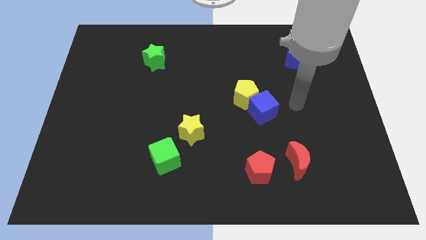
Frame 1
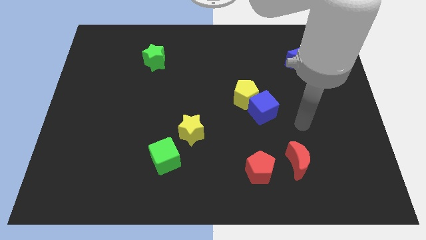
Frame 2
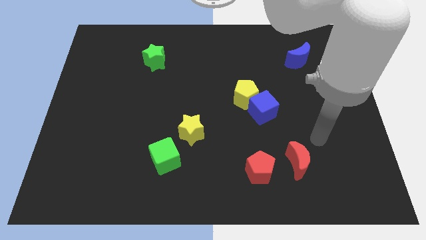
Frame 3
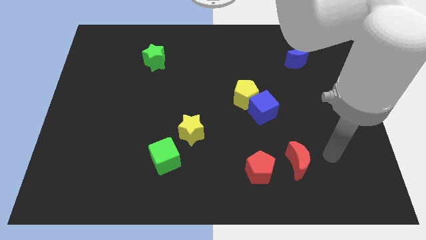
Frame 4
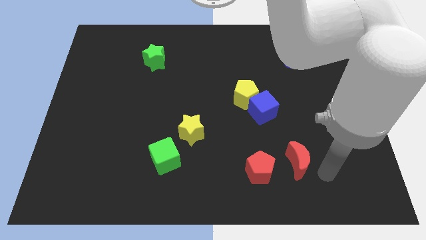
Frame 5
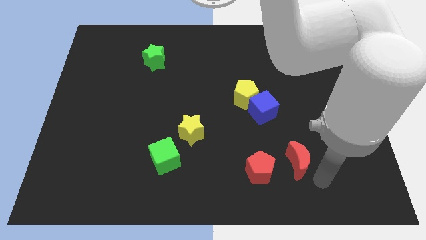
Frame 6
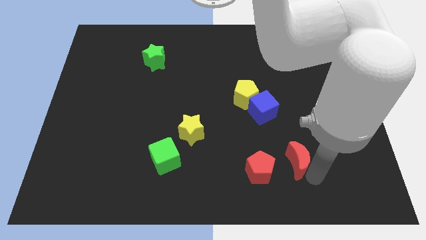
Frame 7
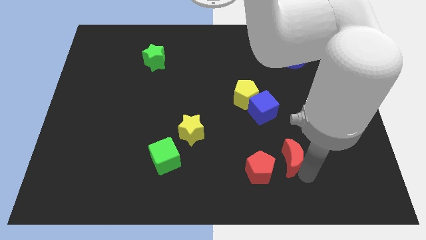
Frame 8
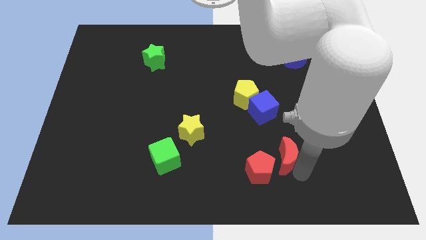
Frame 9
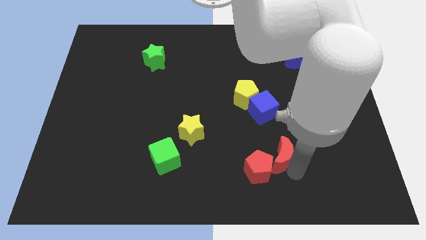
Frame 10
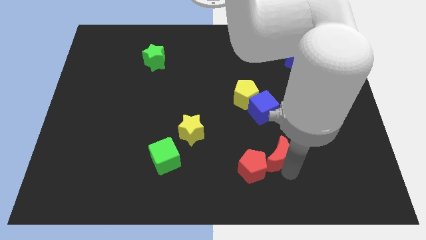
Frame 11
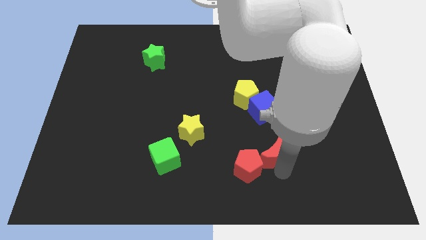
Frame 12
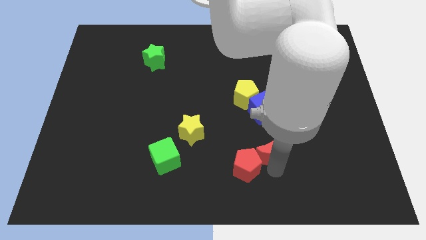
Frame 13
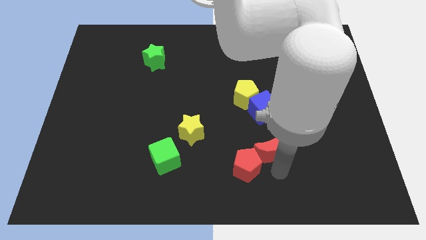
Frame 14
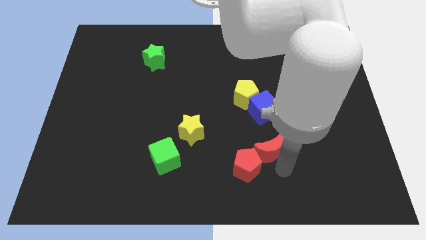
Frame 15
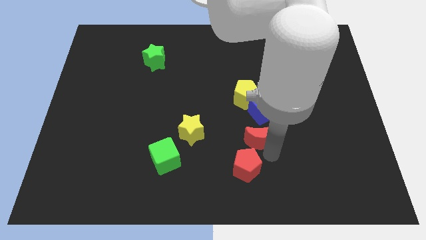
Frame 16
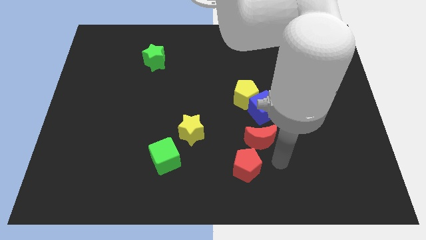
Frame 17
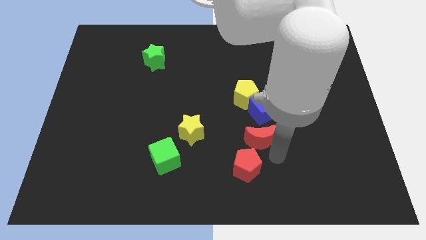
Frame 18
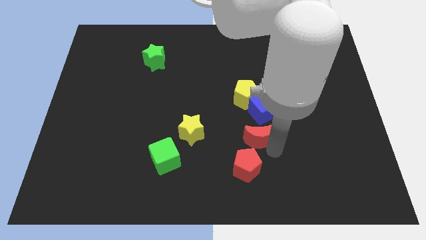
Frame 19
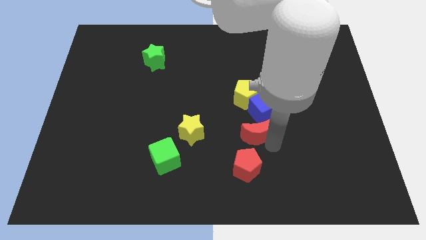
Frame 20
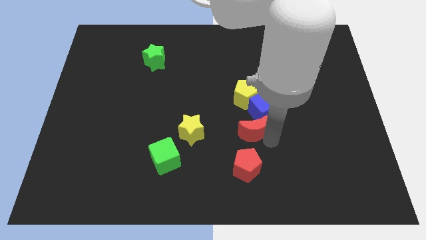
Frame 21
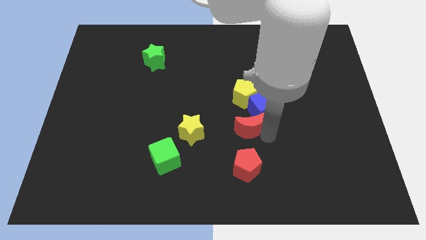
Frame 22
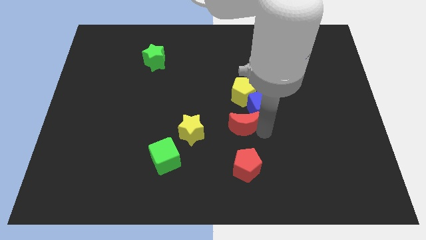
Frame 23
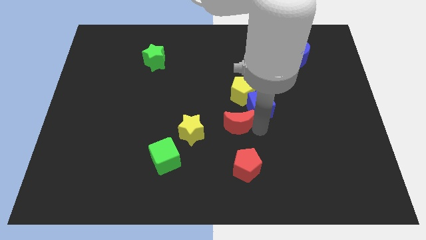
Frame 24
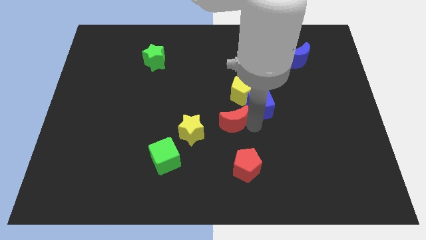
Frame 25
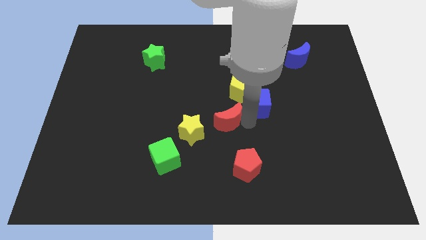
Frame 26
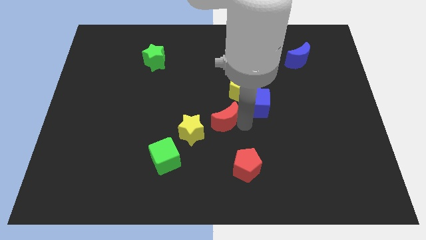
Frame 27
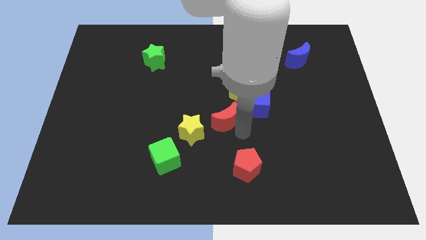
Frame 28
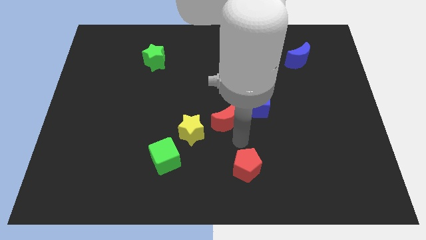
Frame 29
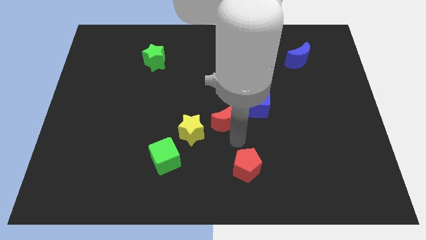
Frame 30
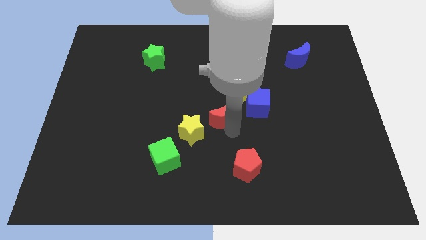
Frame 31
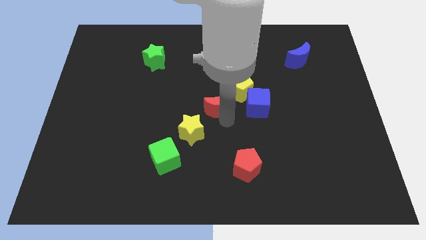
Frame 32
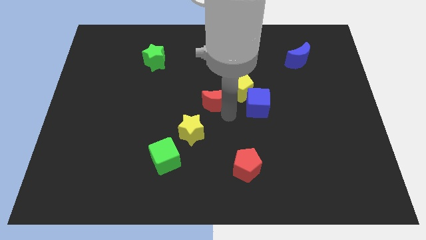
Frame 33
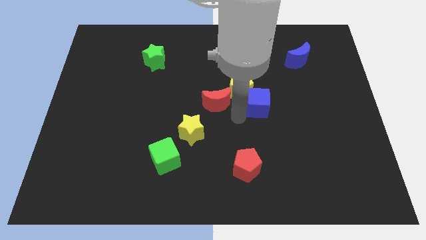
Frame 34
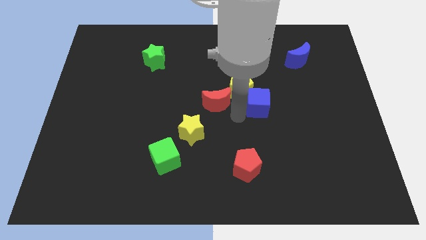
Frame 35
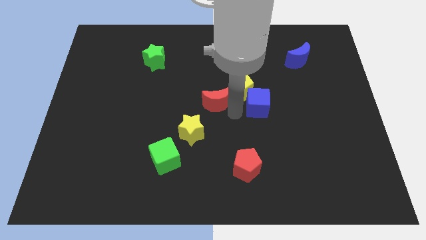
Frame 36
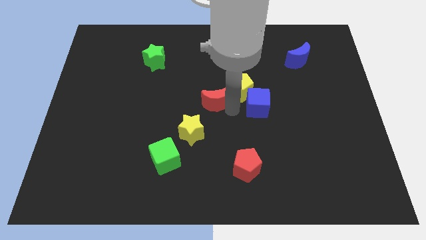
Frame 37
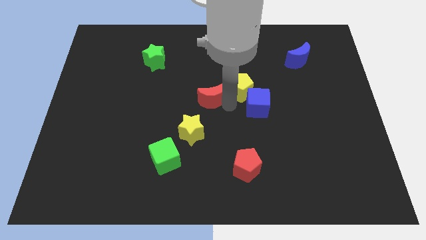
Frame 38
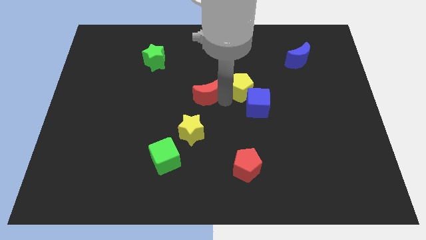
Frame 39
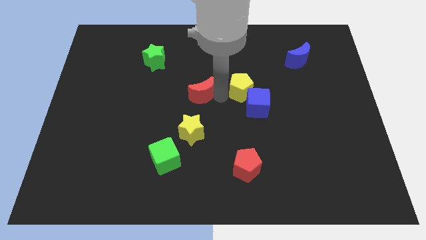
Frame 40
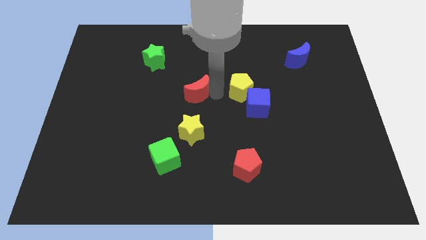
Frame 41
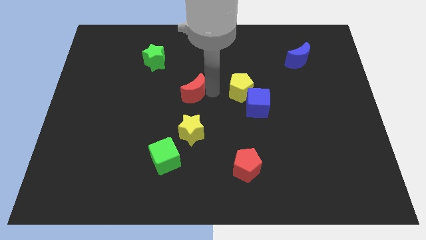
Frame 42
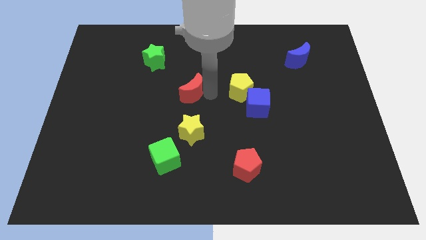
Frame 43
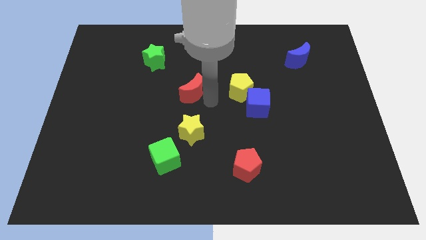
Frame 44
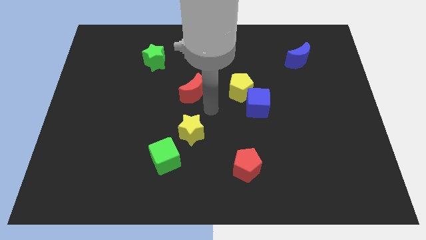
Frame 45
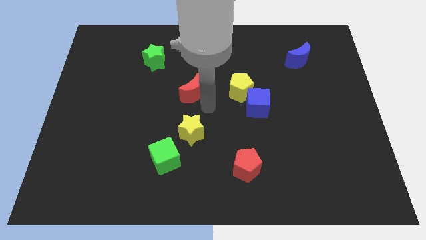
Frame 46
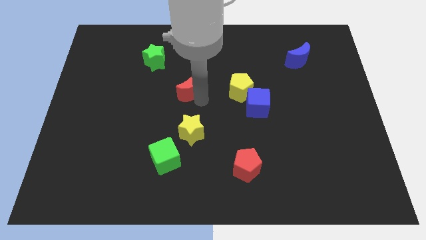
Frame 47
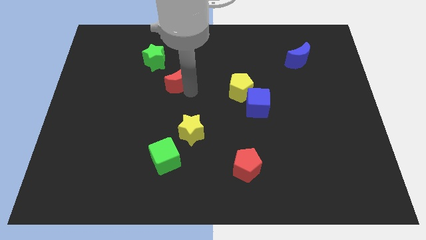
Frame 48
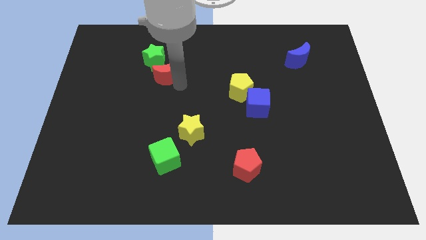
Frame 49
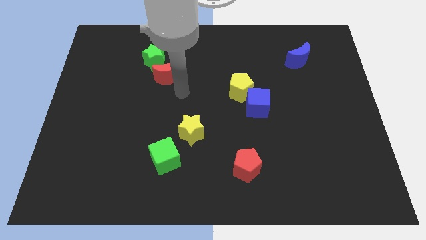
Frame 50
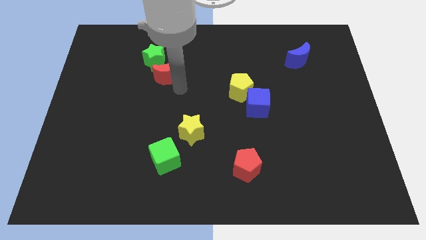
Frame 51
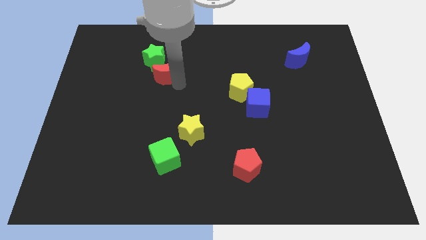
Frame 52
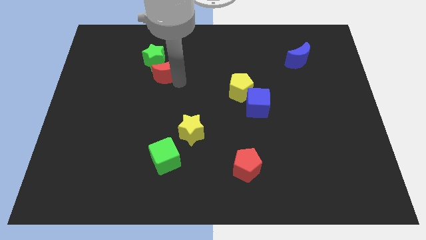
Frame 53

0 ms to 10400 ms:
put the red moon to the green star

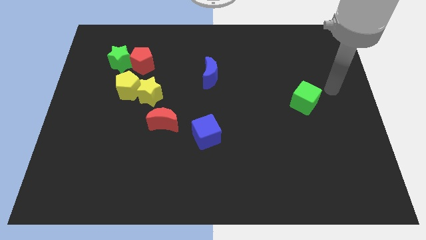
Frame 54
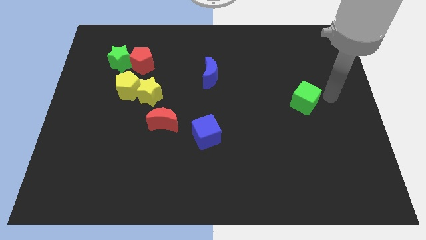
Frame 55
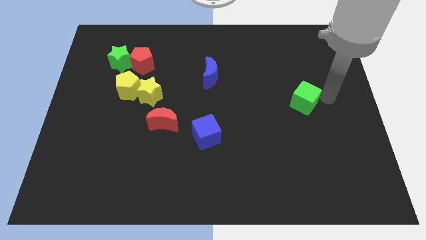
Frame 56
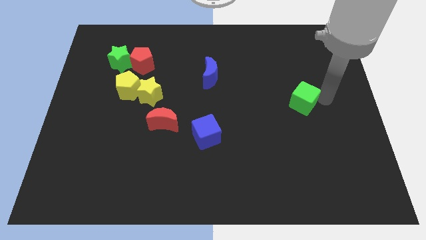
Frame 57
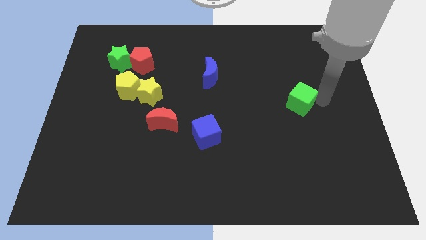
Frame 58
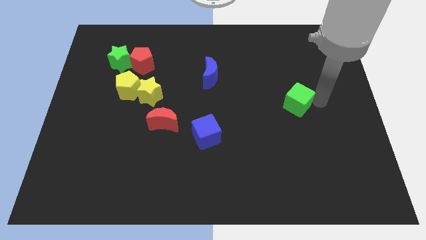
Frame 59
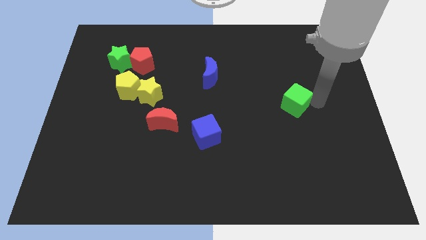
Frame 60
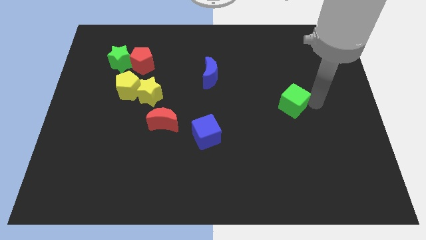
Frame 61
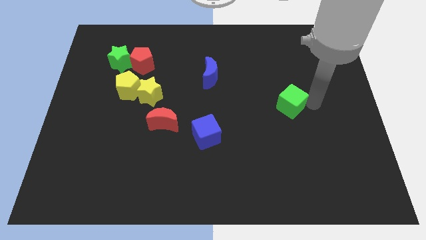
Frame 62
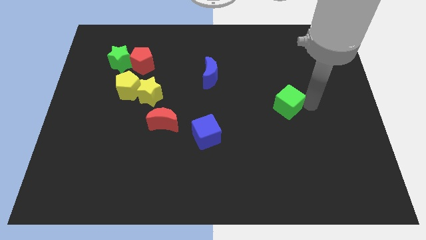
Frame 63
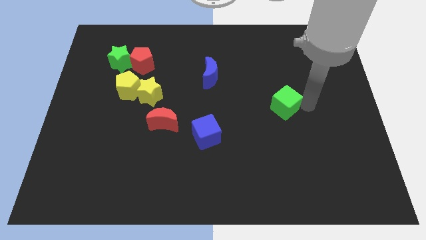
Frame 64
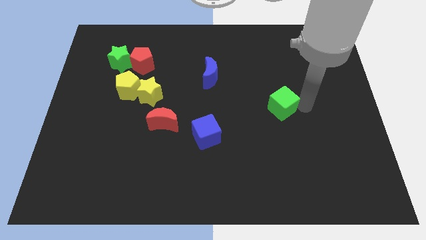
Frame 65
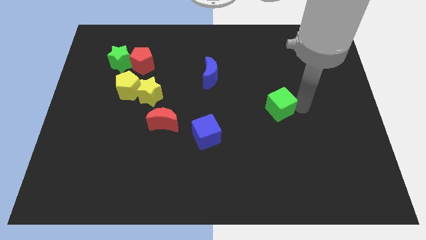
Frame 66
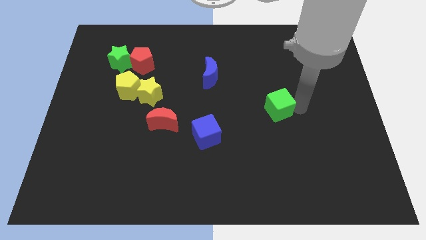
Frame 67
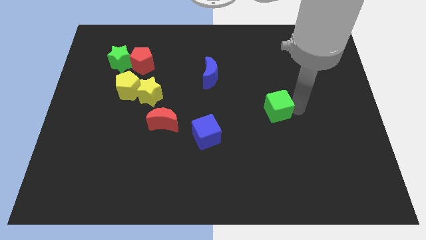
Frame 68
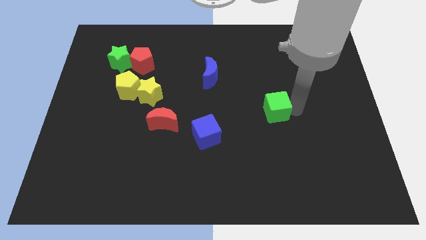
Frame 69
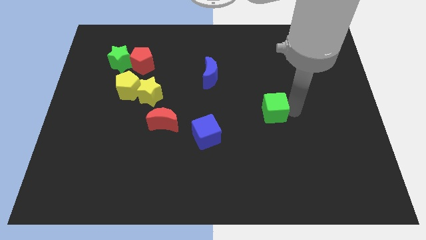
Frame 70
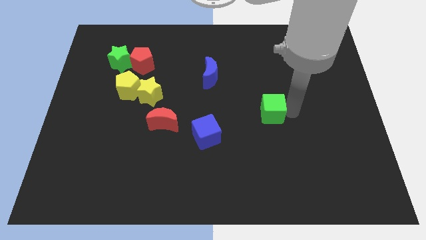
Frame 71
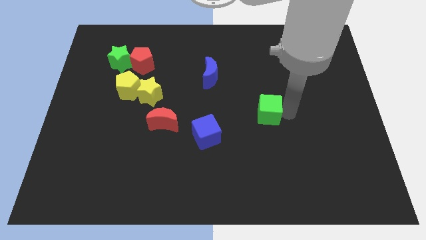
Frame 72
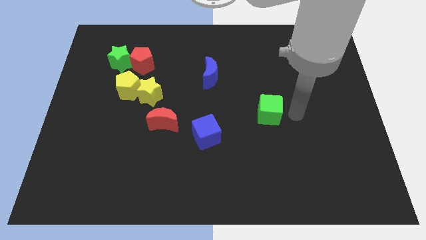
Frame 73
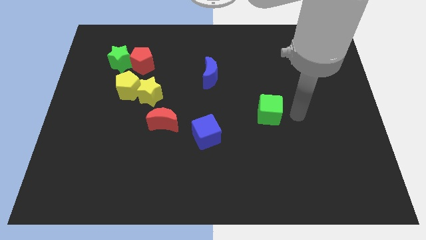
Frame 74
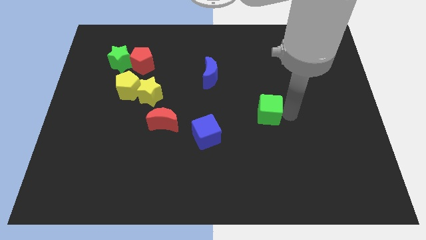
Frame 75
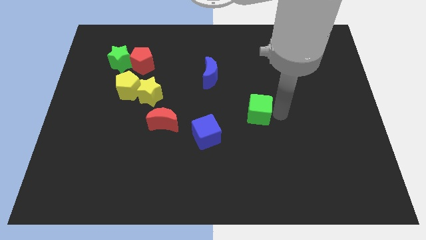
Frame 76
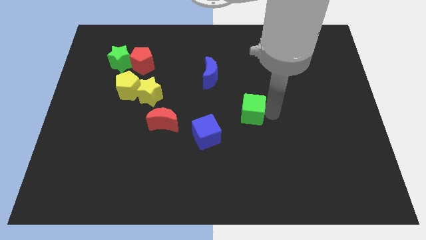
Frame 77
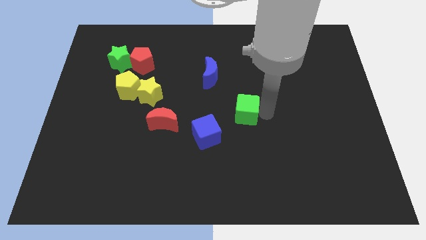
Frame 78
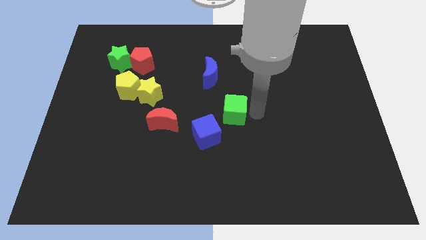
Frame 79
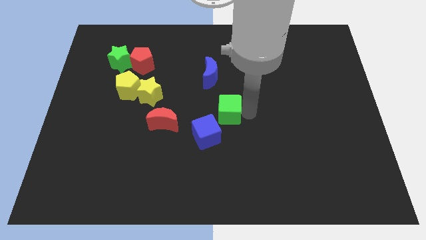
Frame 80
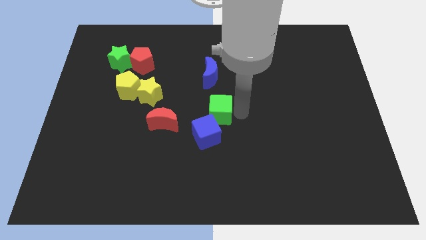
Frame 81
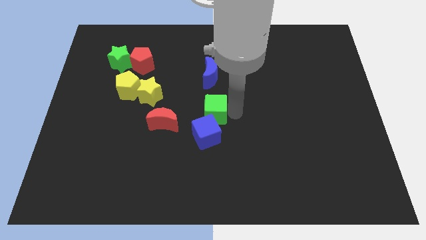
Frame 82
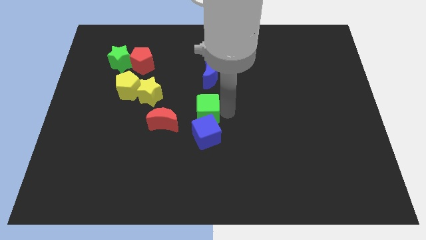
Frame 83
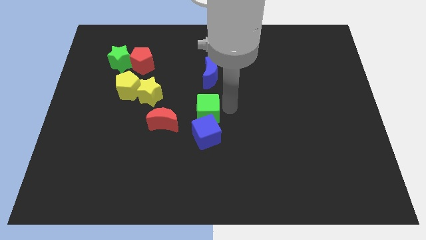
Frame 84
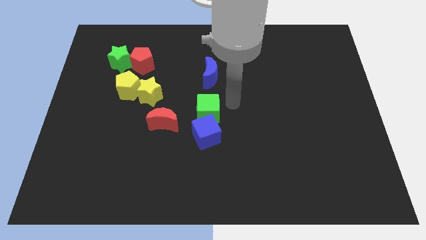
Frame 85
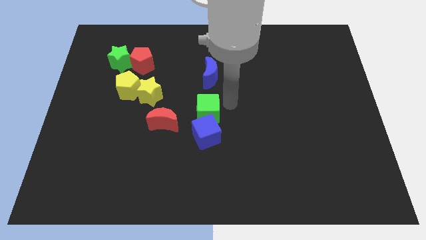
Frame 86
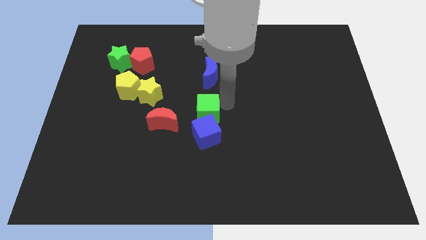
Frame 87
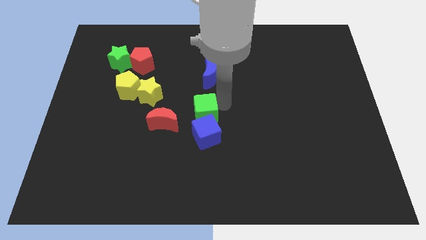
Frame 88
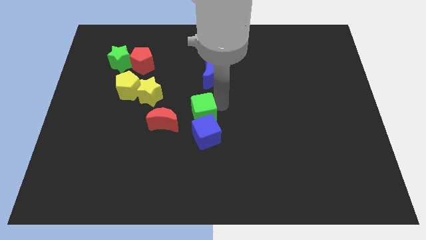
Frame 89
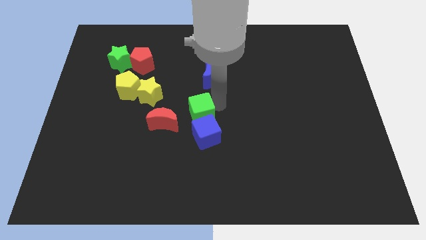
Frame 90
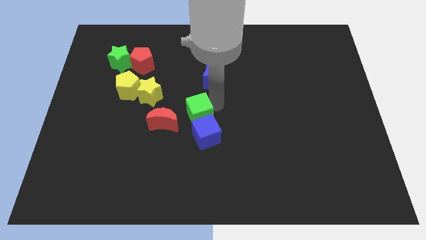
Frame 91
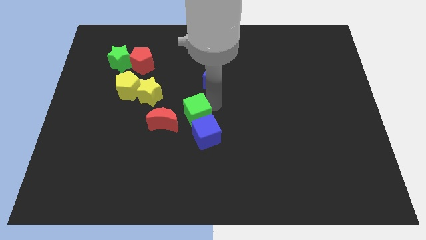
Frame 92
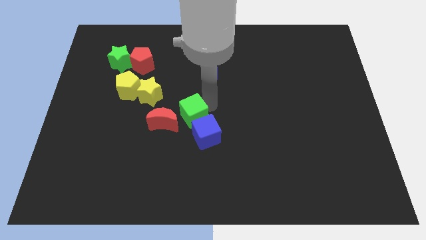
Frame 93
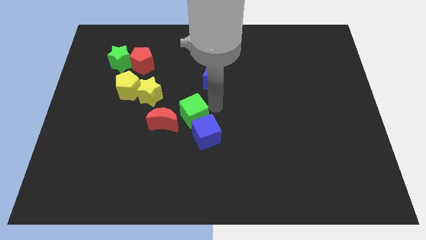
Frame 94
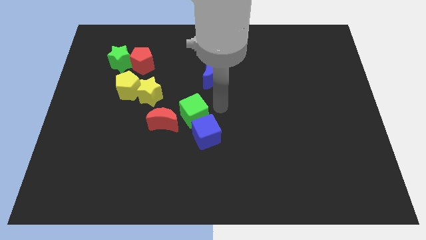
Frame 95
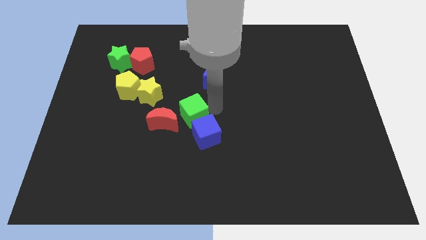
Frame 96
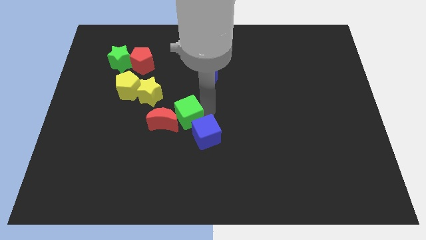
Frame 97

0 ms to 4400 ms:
slide the green cube next to the red moon
